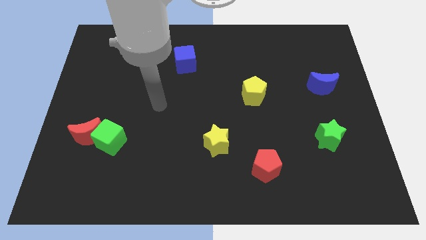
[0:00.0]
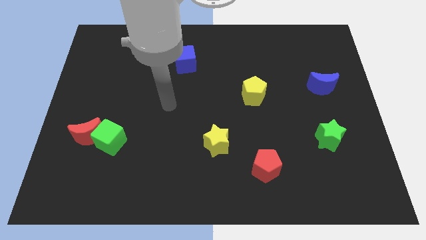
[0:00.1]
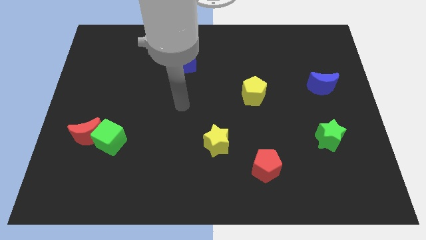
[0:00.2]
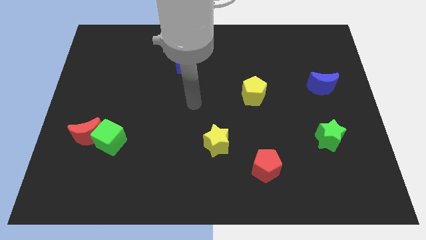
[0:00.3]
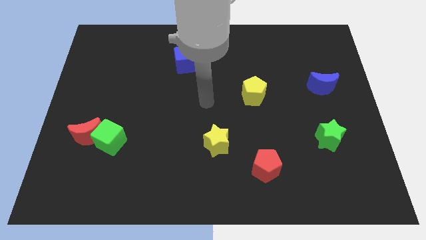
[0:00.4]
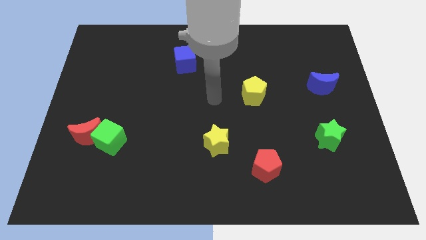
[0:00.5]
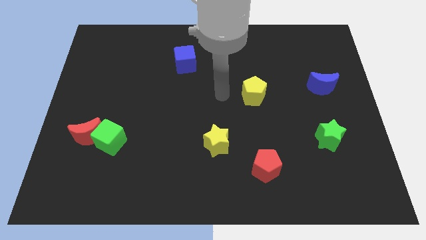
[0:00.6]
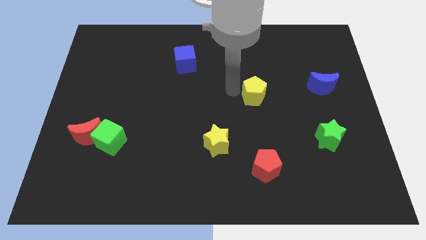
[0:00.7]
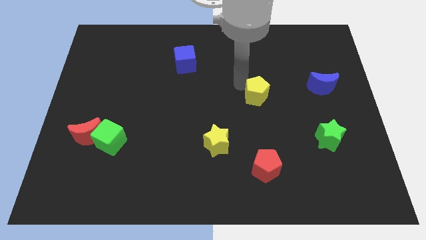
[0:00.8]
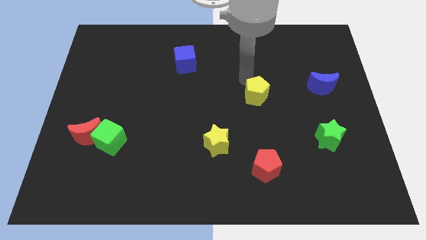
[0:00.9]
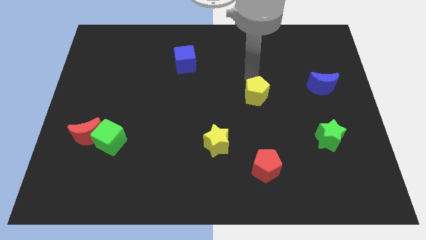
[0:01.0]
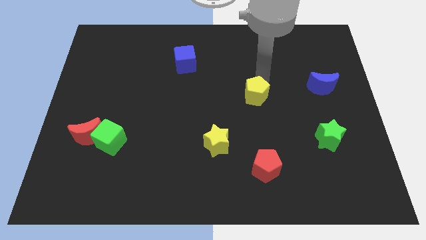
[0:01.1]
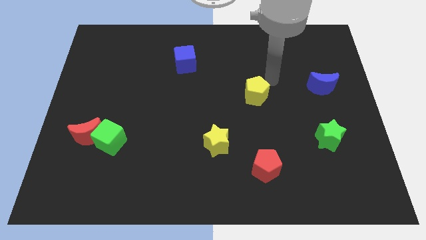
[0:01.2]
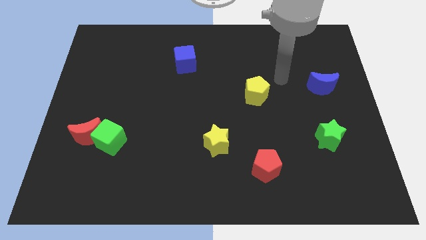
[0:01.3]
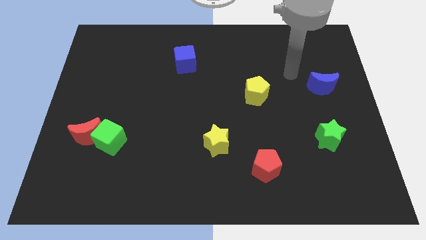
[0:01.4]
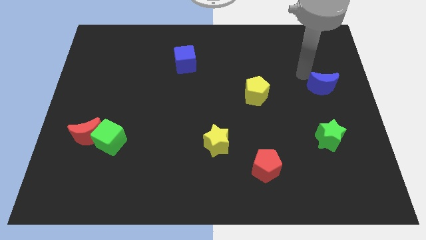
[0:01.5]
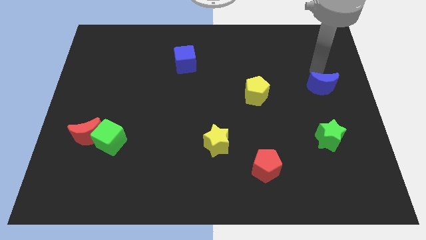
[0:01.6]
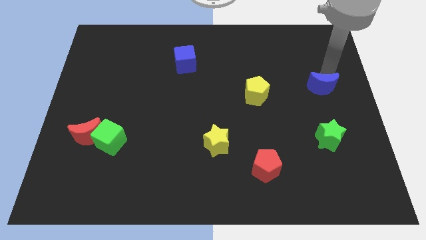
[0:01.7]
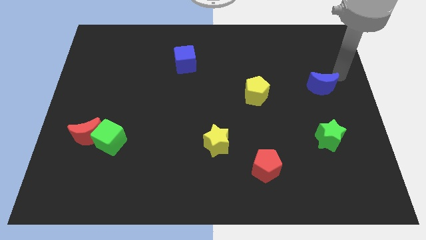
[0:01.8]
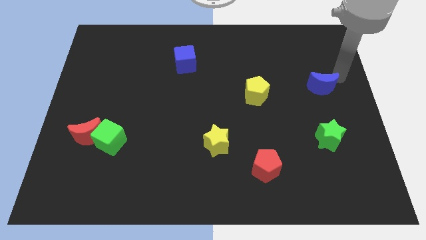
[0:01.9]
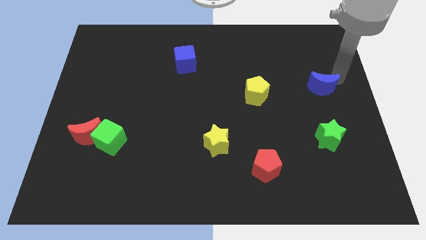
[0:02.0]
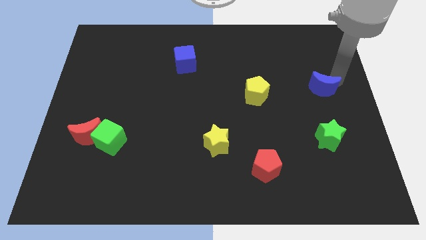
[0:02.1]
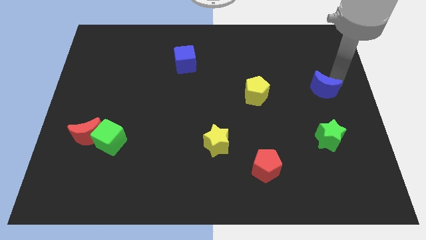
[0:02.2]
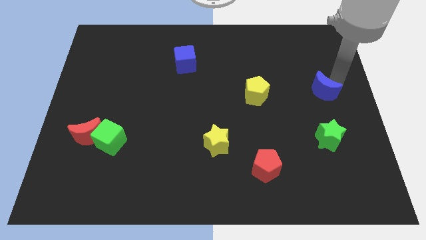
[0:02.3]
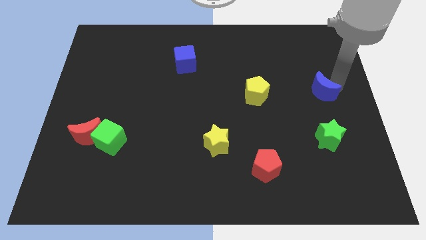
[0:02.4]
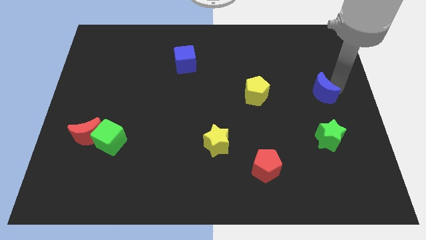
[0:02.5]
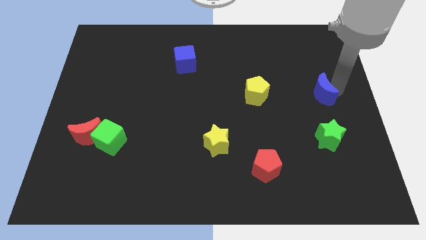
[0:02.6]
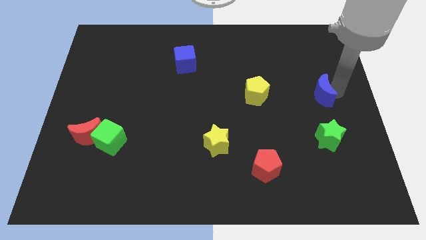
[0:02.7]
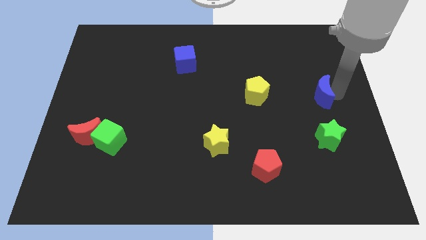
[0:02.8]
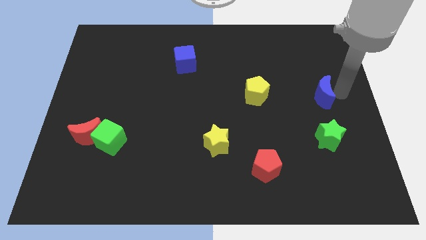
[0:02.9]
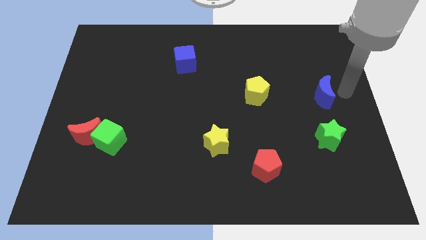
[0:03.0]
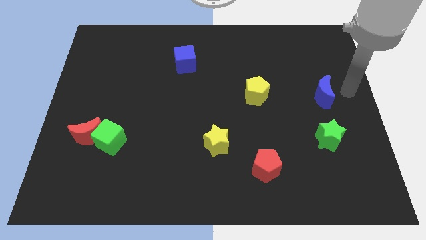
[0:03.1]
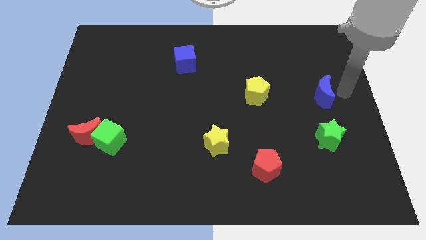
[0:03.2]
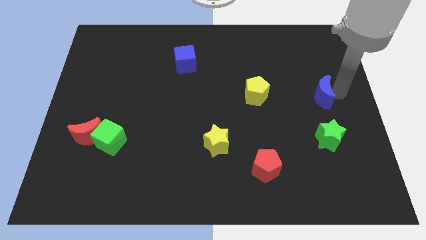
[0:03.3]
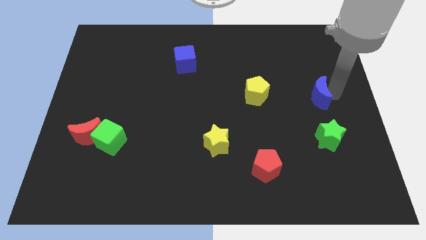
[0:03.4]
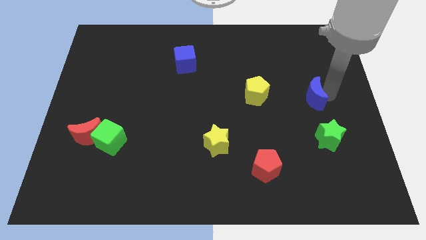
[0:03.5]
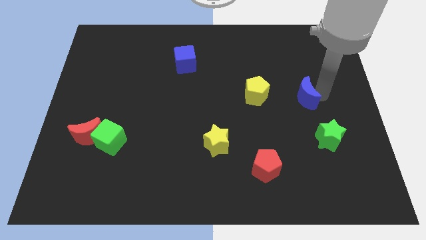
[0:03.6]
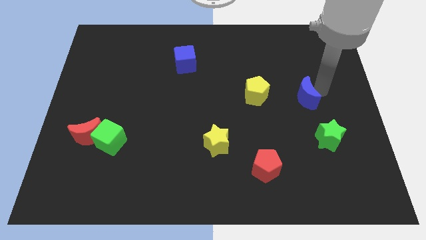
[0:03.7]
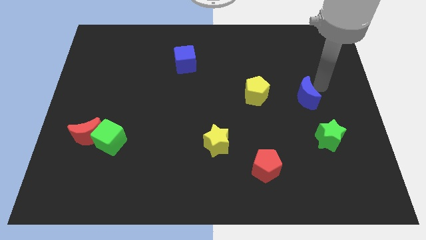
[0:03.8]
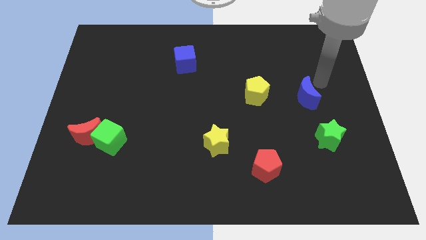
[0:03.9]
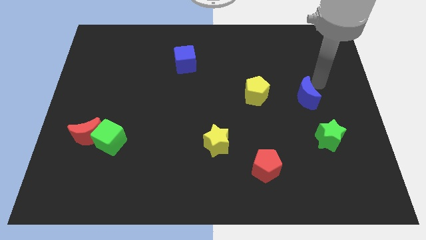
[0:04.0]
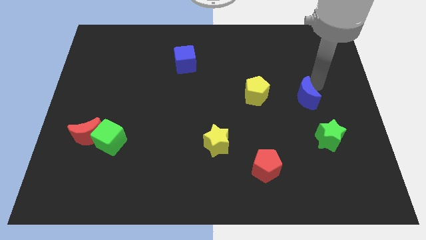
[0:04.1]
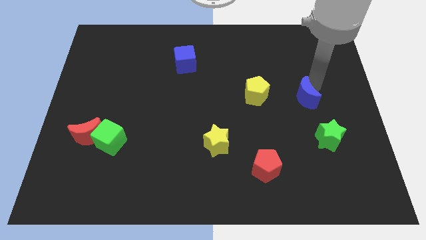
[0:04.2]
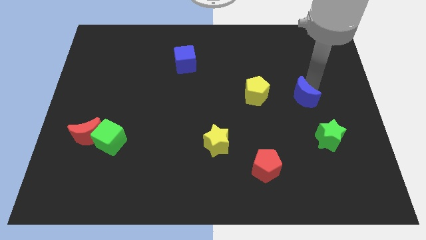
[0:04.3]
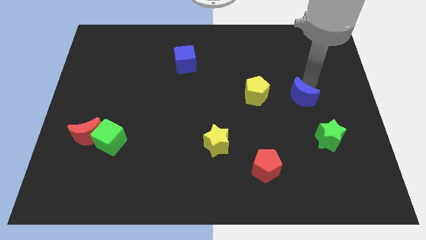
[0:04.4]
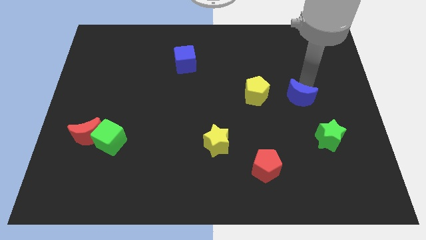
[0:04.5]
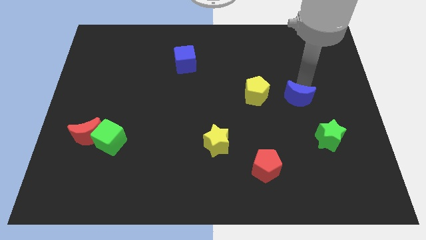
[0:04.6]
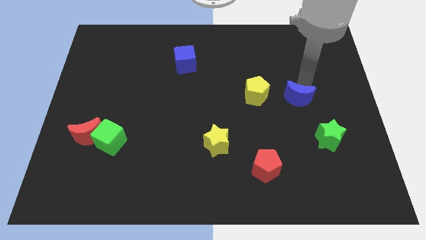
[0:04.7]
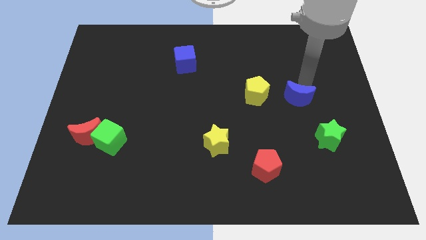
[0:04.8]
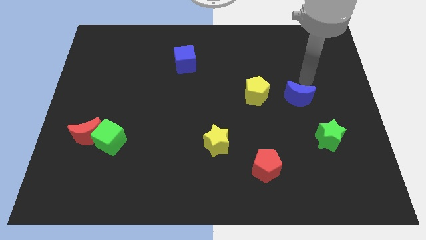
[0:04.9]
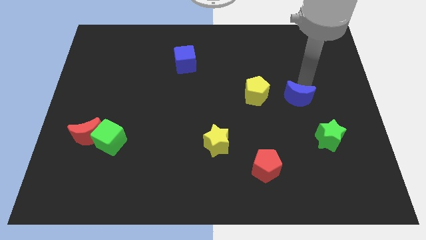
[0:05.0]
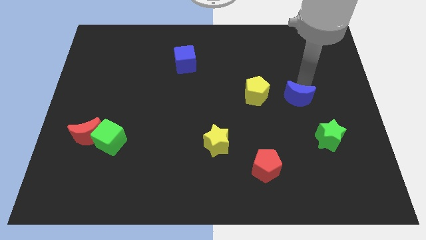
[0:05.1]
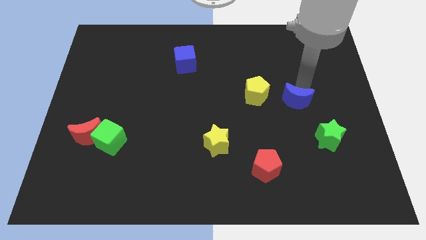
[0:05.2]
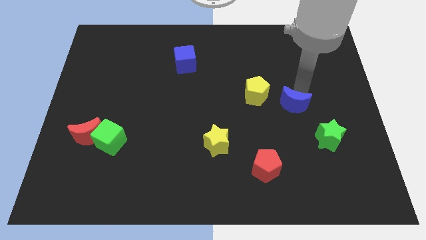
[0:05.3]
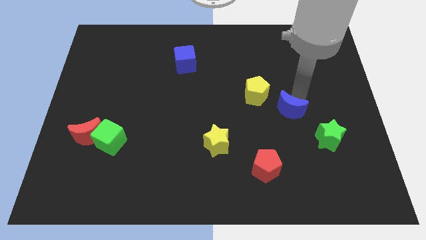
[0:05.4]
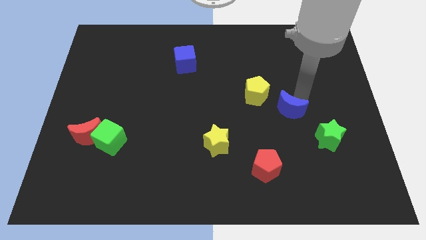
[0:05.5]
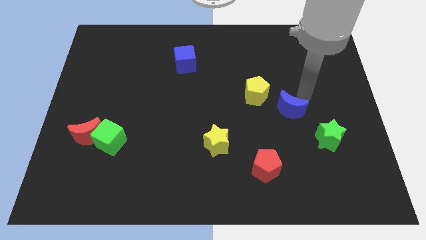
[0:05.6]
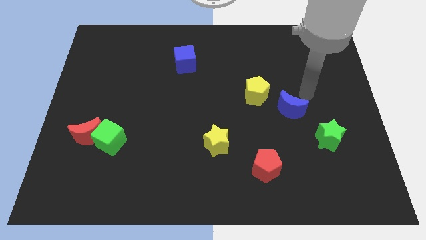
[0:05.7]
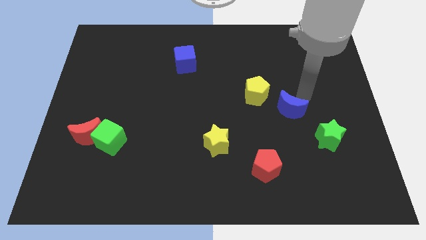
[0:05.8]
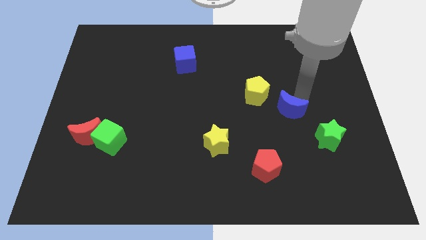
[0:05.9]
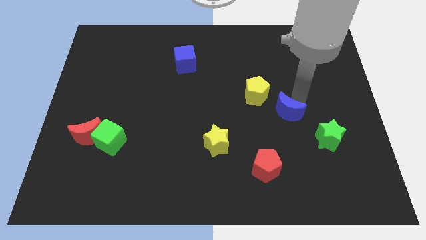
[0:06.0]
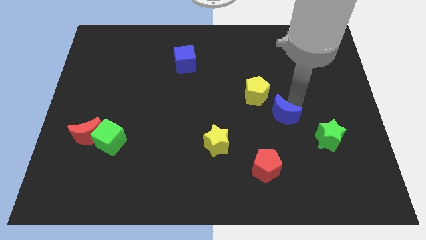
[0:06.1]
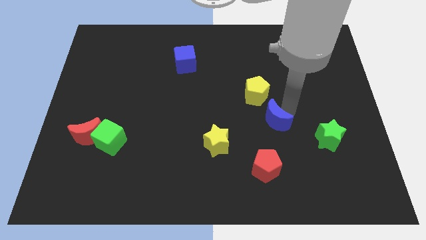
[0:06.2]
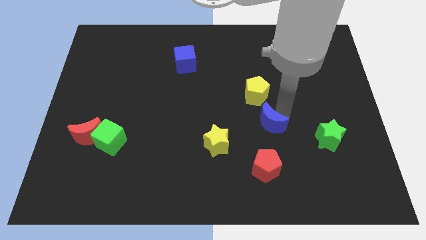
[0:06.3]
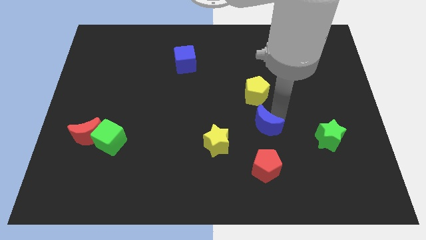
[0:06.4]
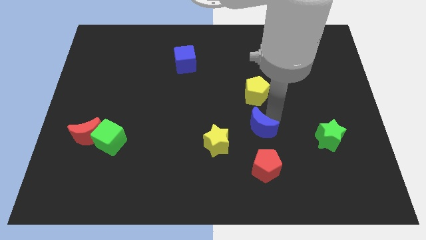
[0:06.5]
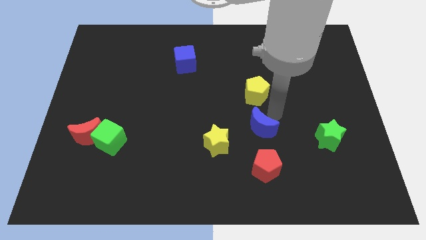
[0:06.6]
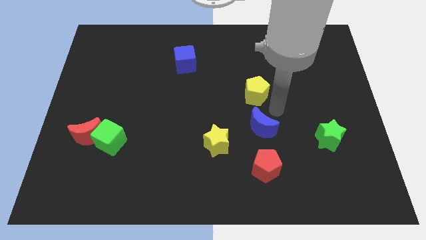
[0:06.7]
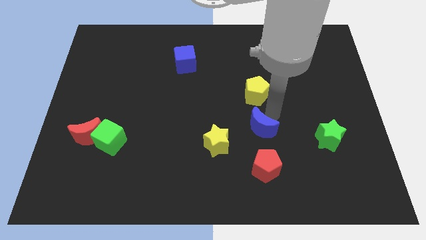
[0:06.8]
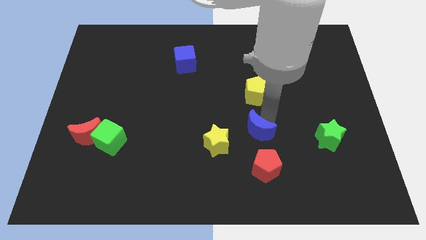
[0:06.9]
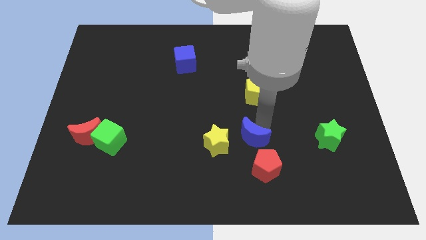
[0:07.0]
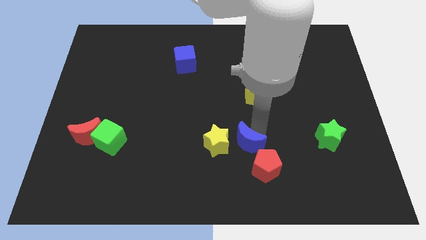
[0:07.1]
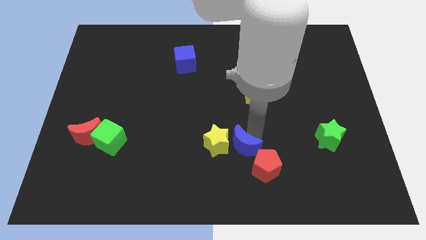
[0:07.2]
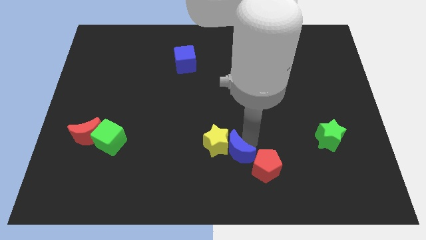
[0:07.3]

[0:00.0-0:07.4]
move the blue moon just left of the red pentagon

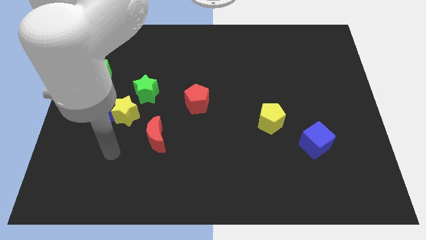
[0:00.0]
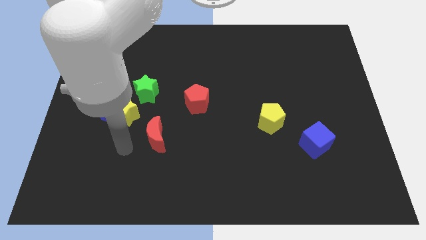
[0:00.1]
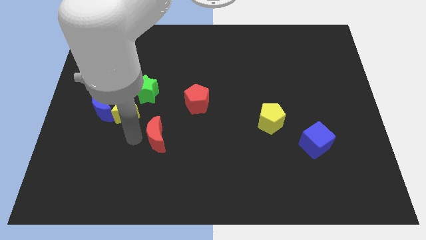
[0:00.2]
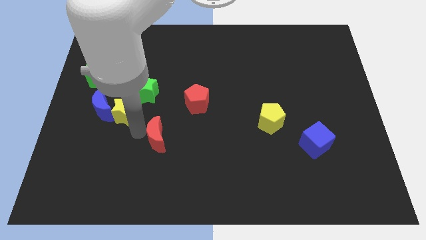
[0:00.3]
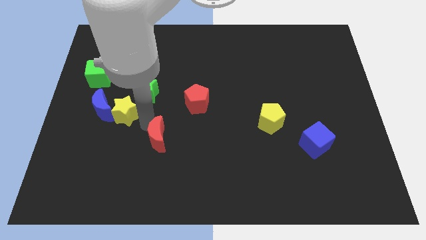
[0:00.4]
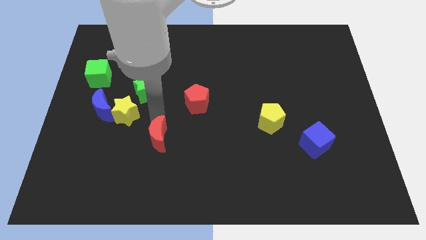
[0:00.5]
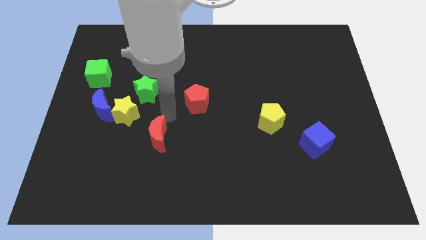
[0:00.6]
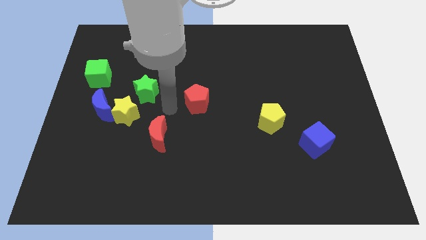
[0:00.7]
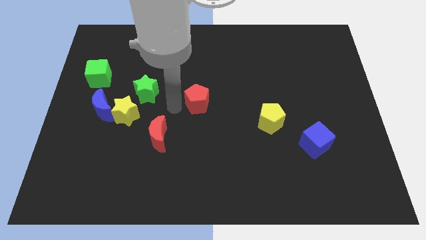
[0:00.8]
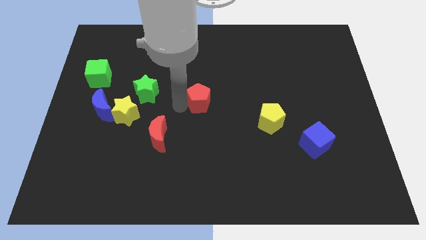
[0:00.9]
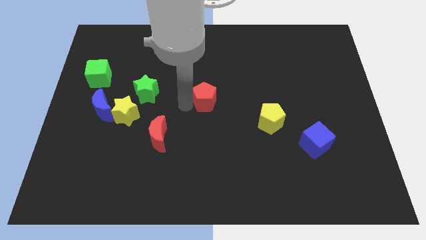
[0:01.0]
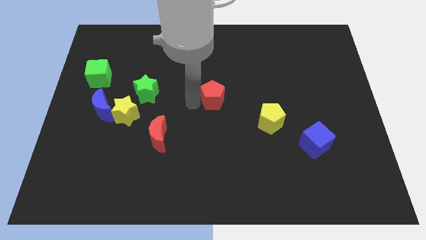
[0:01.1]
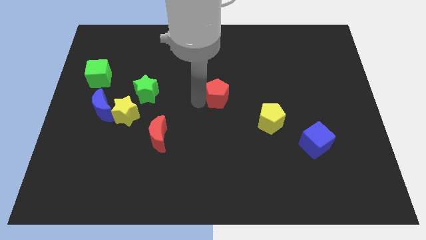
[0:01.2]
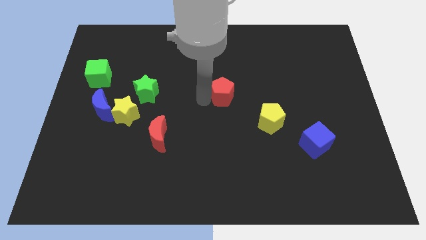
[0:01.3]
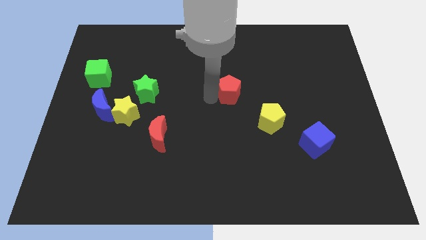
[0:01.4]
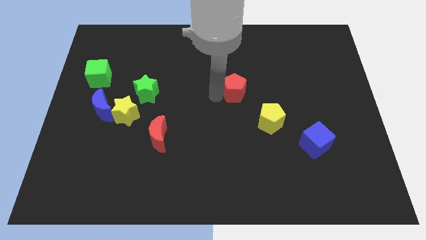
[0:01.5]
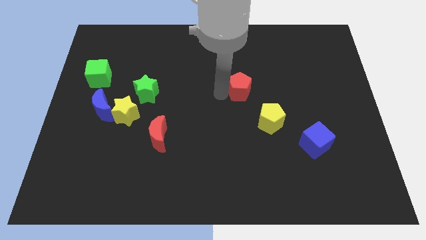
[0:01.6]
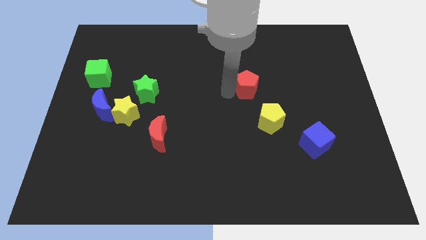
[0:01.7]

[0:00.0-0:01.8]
push the red pentagon above the yellow pentagon
